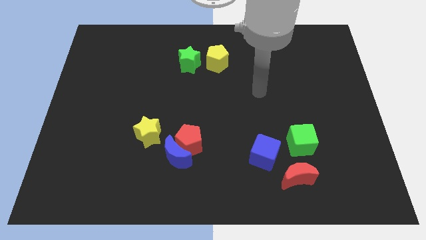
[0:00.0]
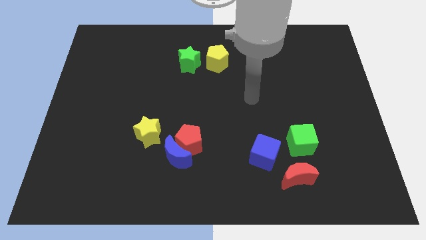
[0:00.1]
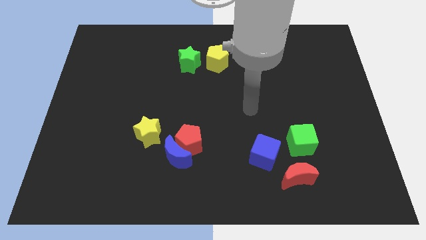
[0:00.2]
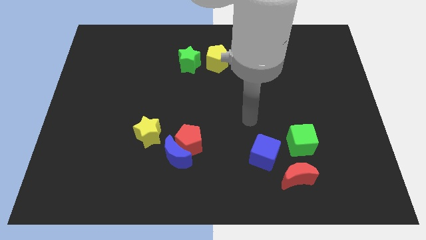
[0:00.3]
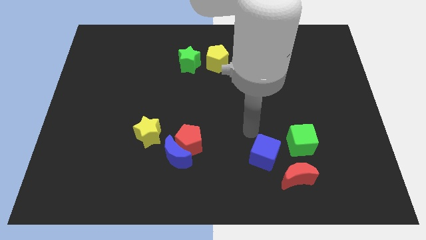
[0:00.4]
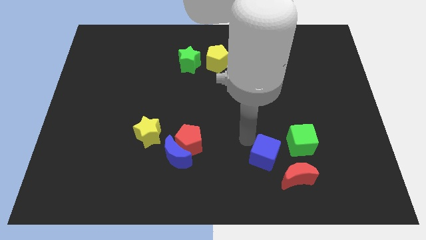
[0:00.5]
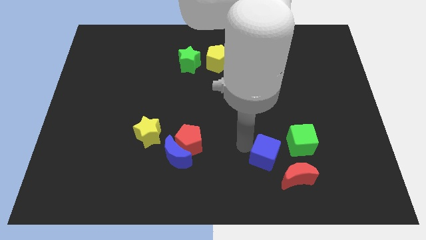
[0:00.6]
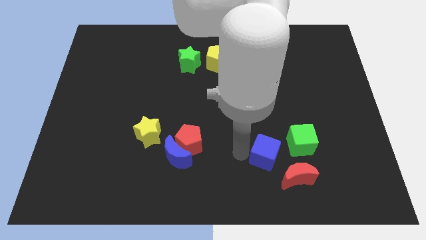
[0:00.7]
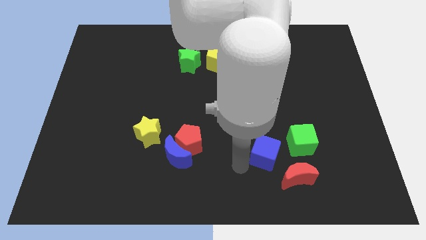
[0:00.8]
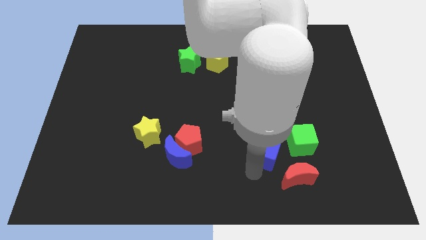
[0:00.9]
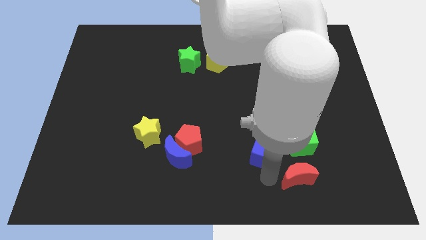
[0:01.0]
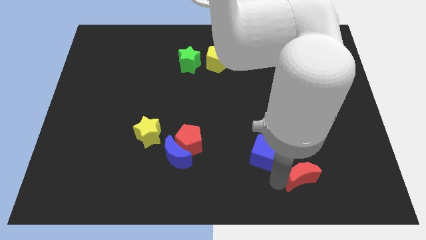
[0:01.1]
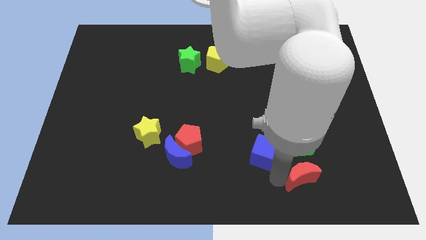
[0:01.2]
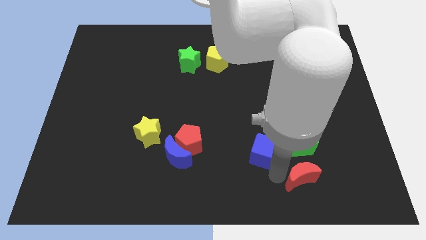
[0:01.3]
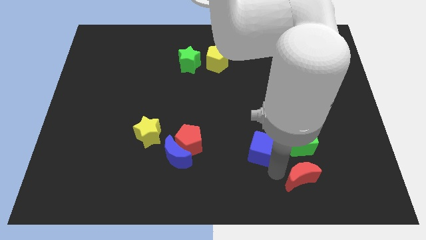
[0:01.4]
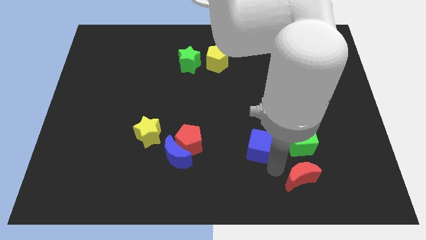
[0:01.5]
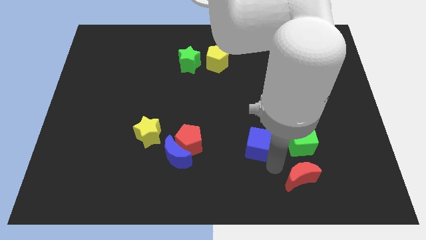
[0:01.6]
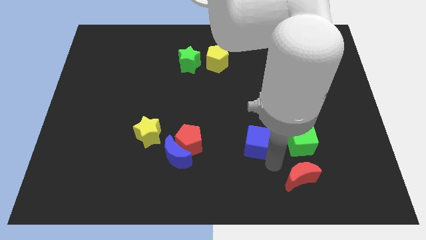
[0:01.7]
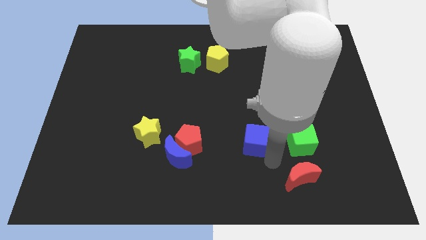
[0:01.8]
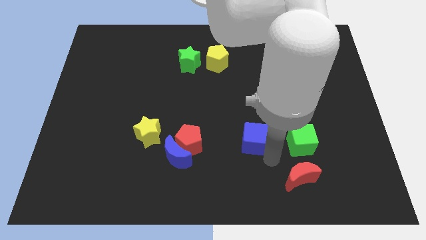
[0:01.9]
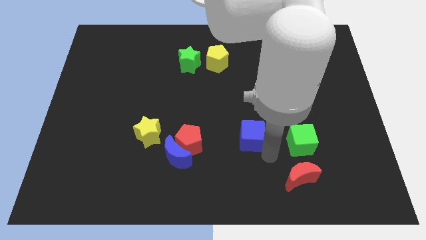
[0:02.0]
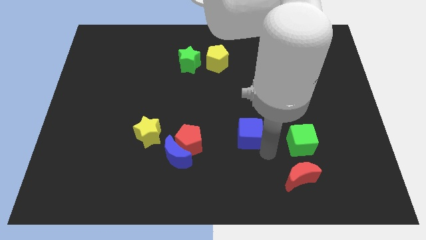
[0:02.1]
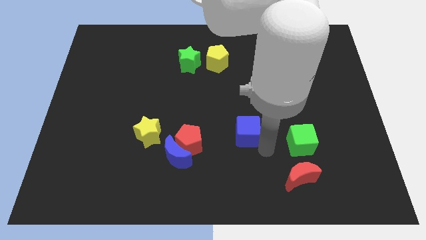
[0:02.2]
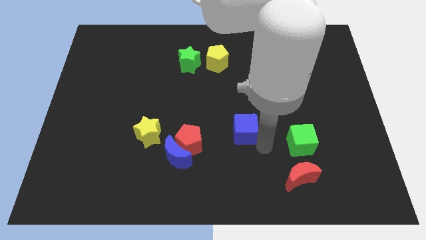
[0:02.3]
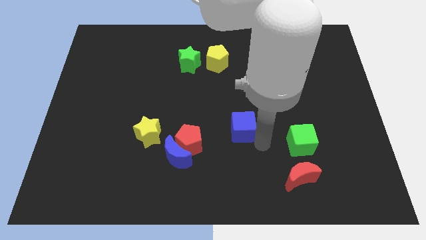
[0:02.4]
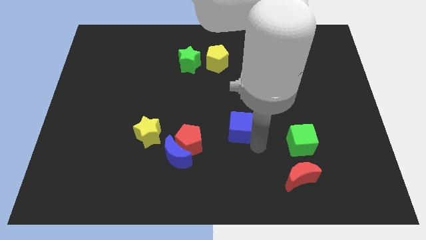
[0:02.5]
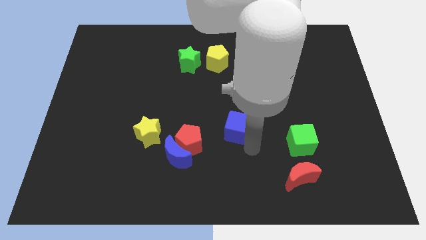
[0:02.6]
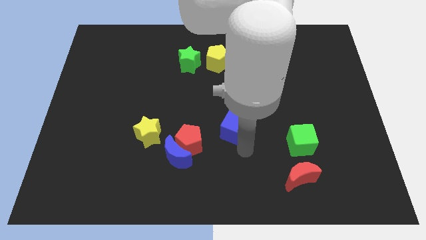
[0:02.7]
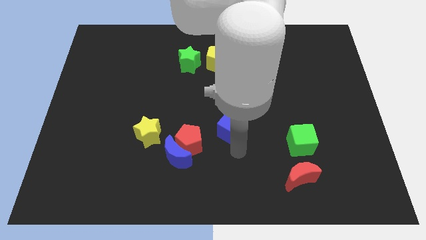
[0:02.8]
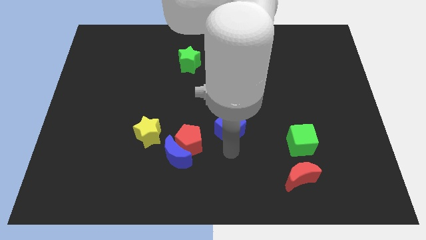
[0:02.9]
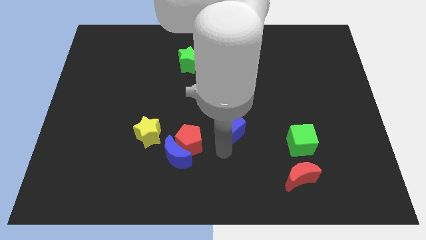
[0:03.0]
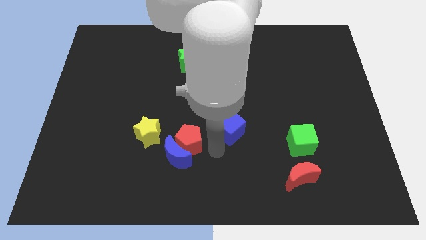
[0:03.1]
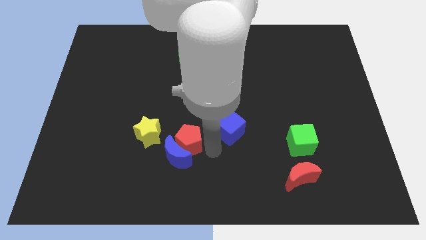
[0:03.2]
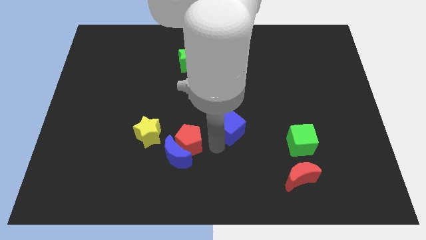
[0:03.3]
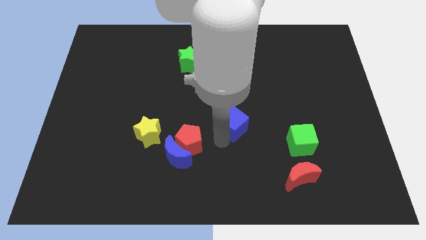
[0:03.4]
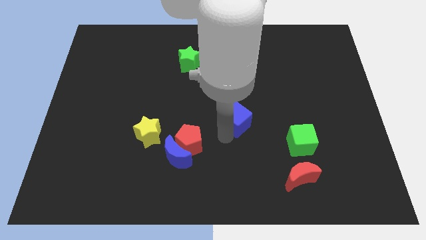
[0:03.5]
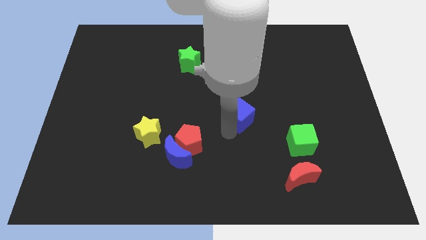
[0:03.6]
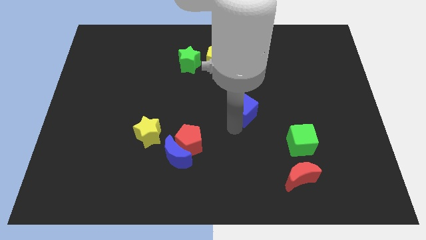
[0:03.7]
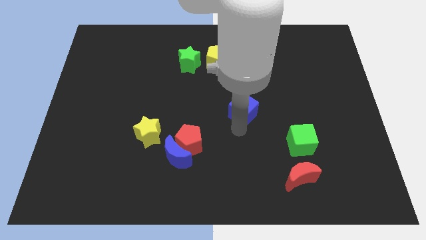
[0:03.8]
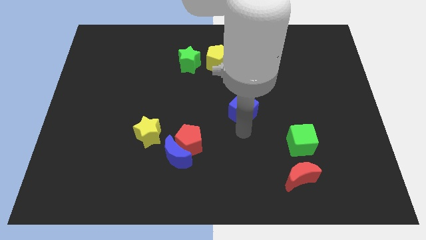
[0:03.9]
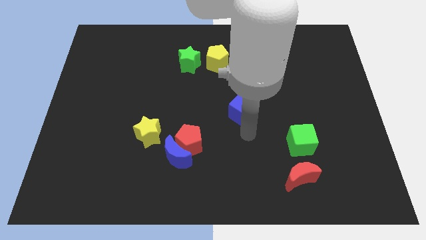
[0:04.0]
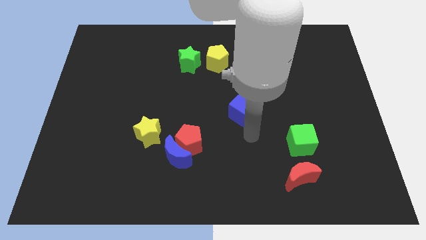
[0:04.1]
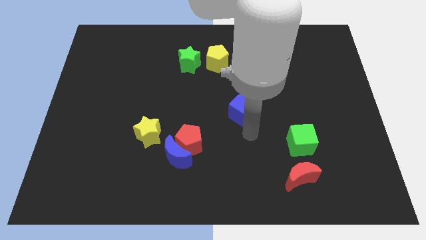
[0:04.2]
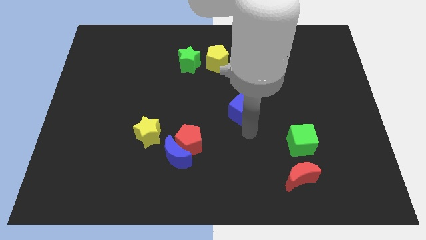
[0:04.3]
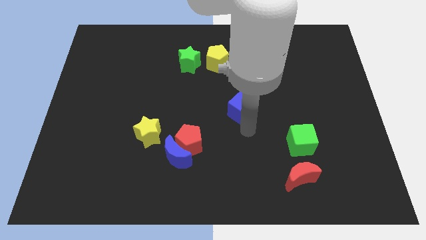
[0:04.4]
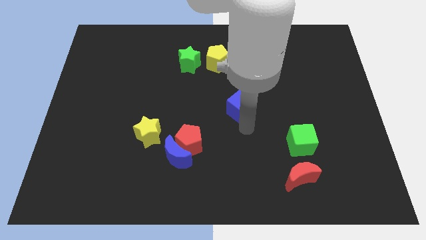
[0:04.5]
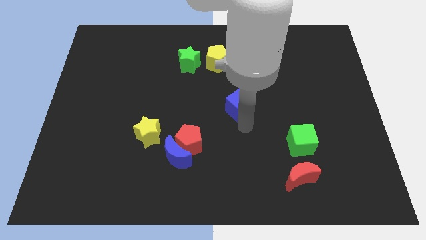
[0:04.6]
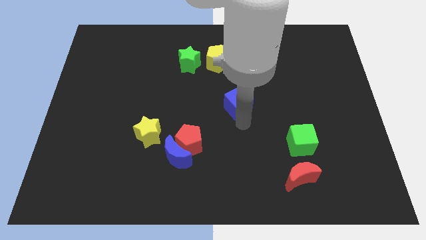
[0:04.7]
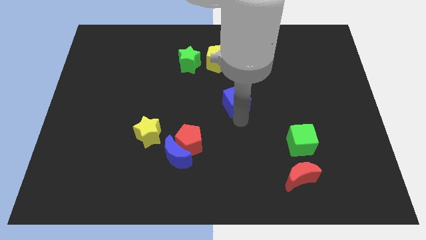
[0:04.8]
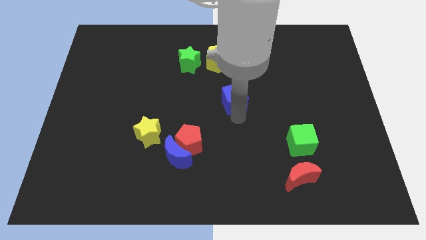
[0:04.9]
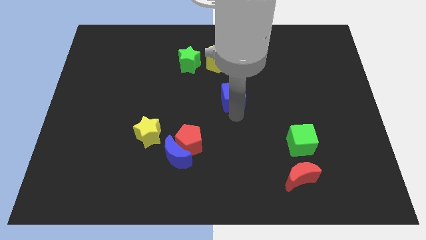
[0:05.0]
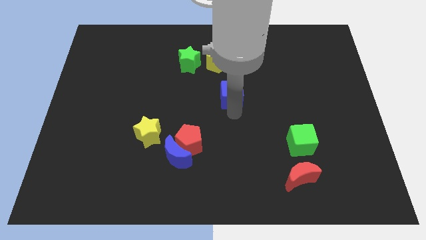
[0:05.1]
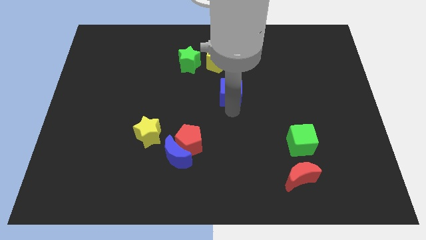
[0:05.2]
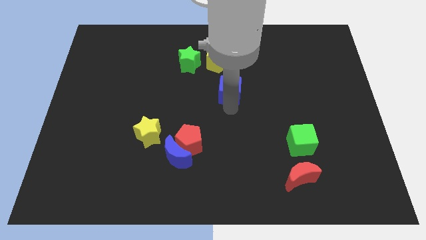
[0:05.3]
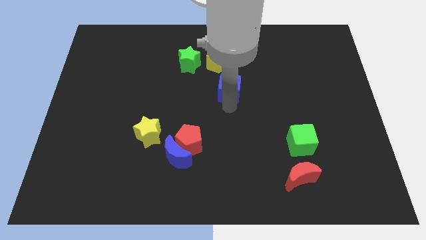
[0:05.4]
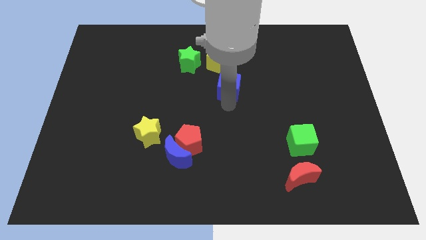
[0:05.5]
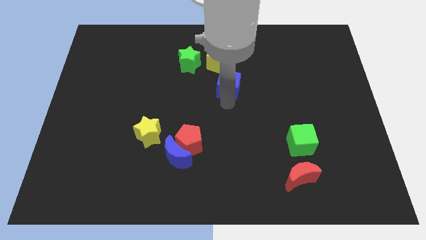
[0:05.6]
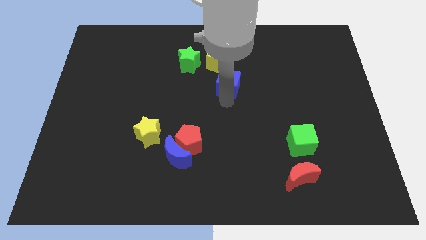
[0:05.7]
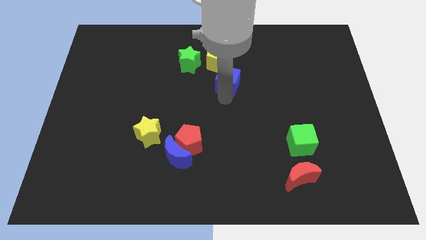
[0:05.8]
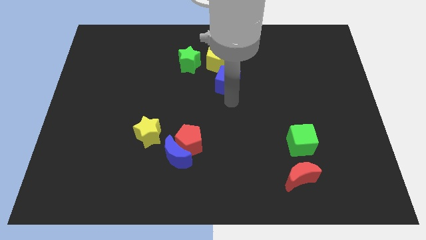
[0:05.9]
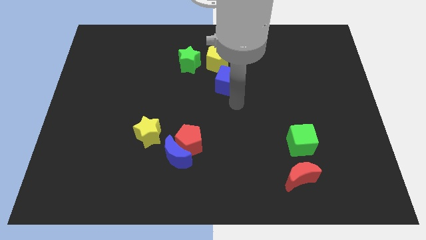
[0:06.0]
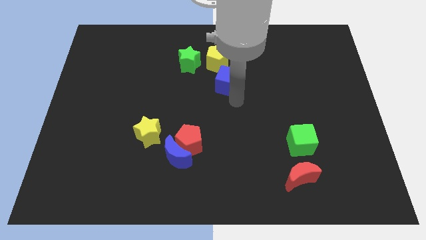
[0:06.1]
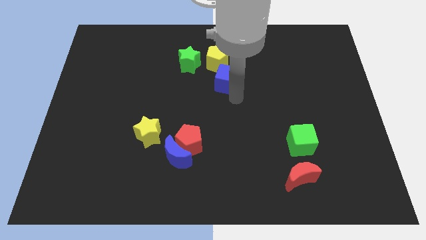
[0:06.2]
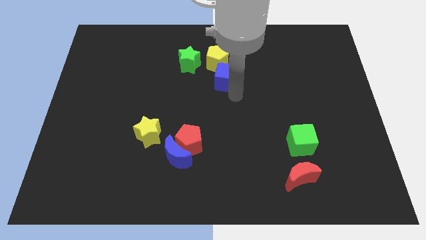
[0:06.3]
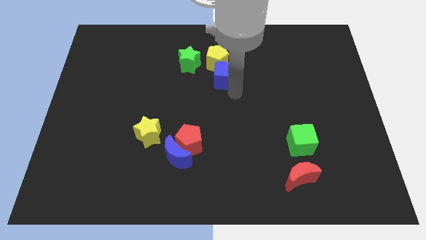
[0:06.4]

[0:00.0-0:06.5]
put the blue cube close to the yellow pentagon

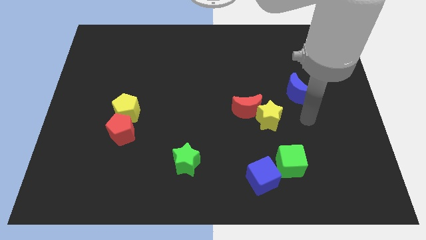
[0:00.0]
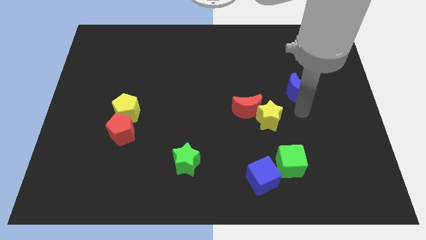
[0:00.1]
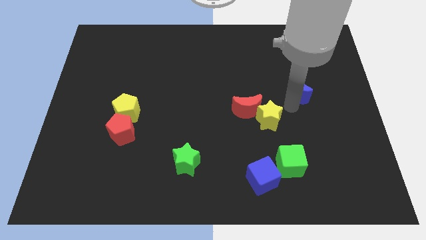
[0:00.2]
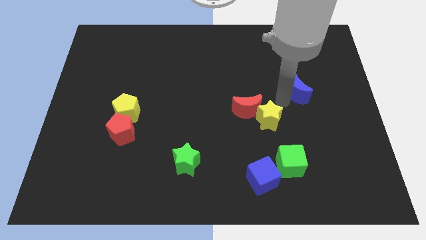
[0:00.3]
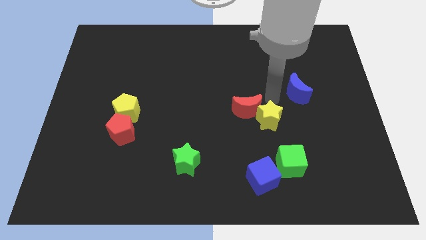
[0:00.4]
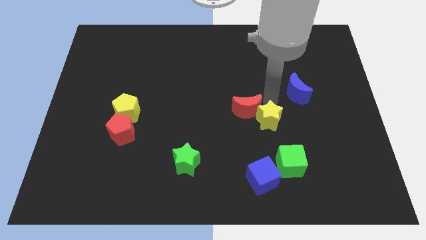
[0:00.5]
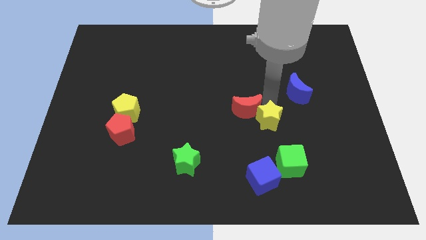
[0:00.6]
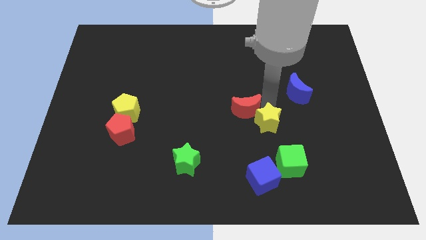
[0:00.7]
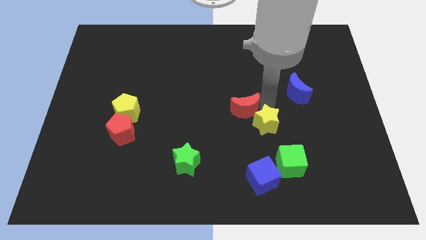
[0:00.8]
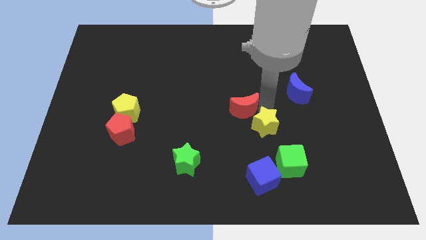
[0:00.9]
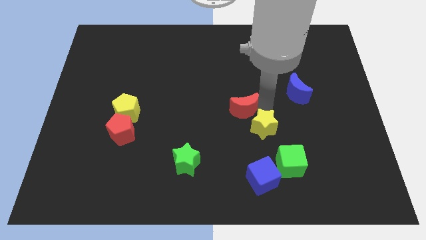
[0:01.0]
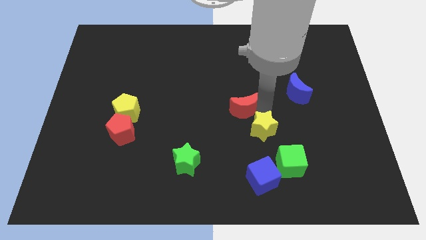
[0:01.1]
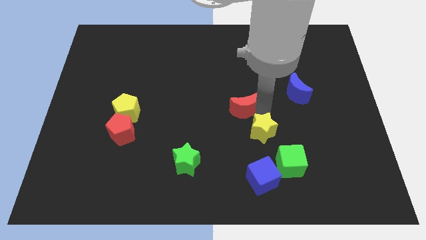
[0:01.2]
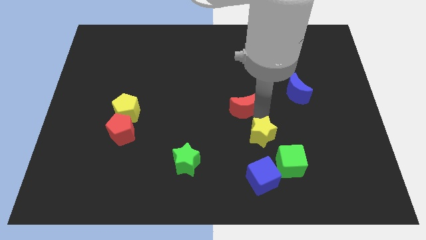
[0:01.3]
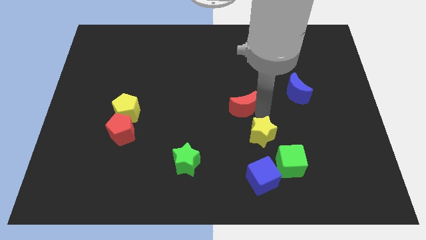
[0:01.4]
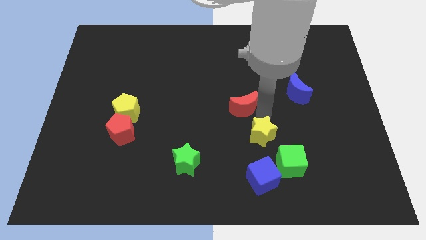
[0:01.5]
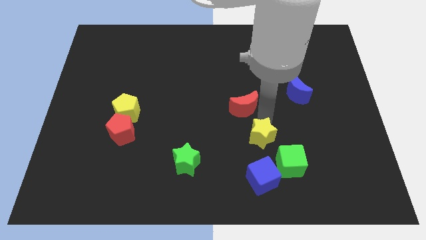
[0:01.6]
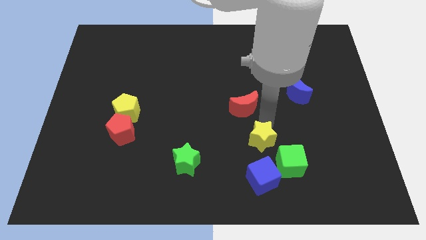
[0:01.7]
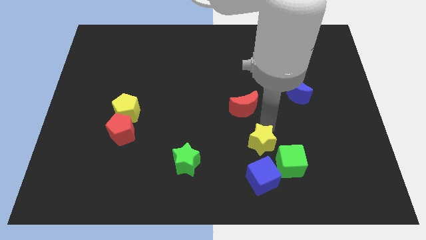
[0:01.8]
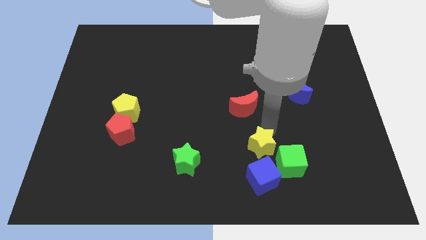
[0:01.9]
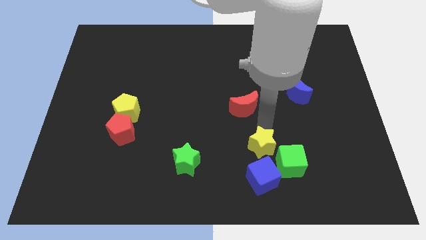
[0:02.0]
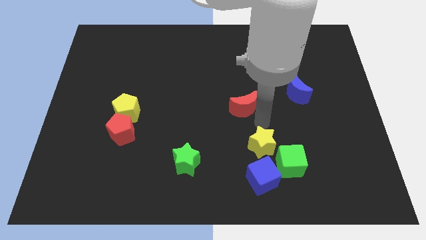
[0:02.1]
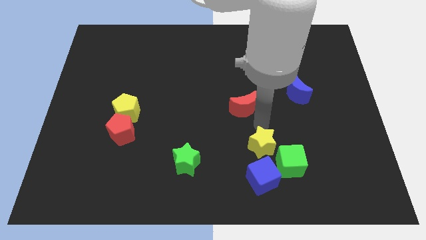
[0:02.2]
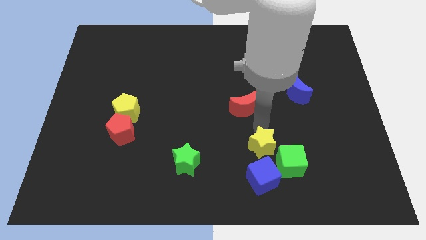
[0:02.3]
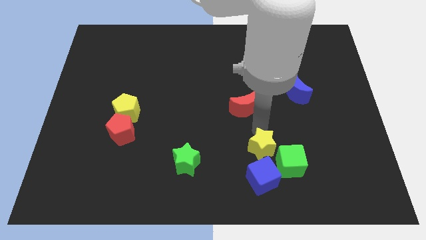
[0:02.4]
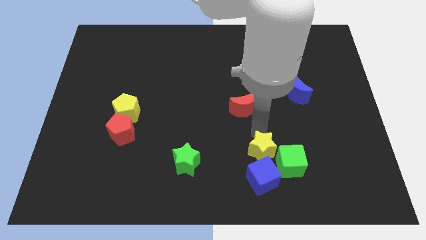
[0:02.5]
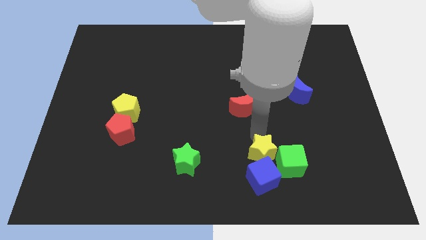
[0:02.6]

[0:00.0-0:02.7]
push the yellow star to the blue cube
